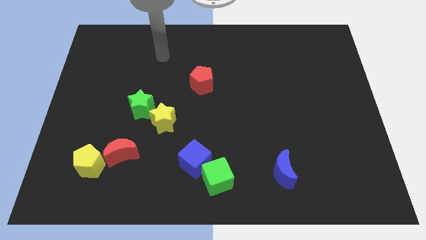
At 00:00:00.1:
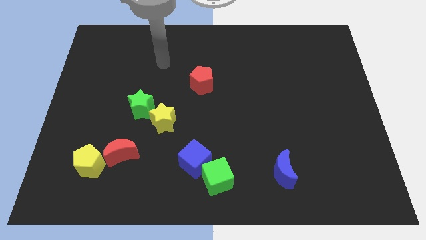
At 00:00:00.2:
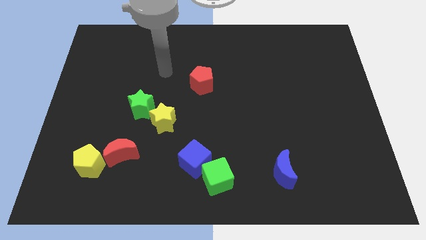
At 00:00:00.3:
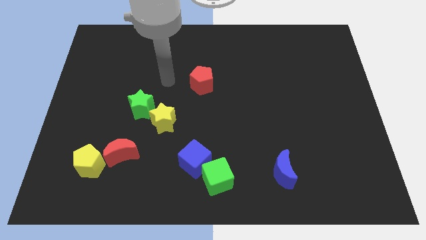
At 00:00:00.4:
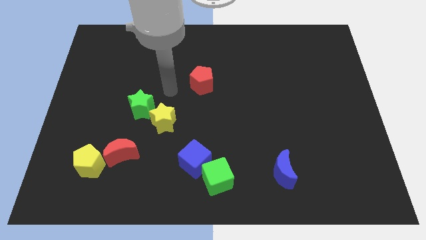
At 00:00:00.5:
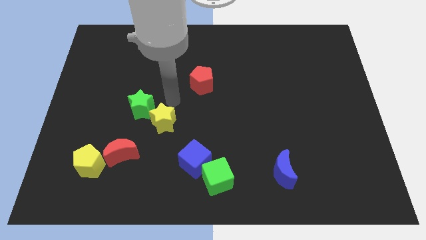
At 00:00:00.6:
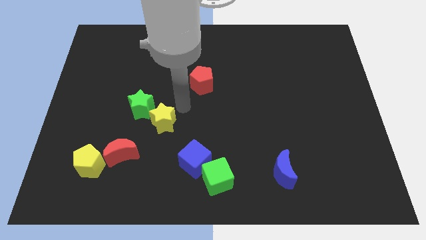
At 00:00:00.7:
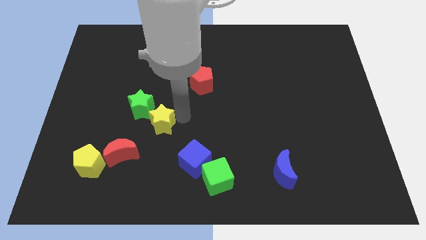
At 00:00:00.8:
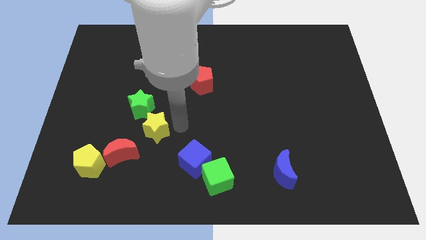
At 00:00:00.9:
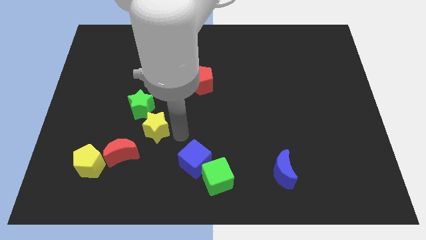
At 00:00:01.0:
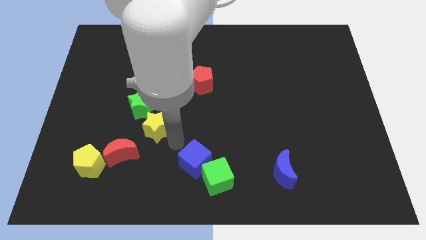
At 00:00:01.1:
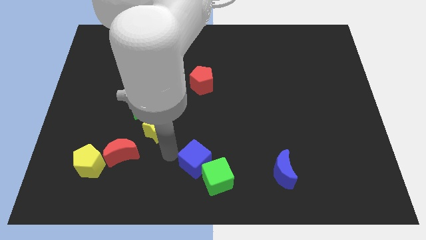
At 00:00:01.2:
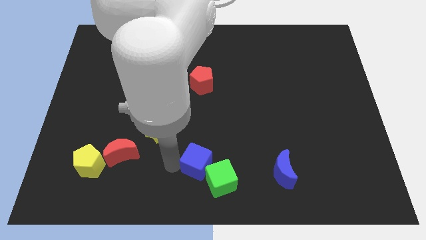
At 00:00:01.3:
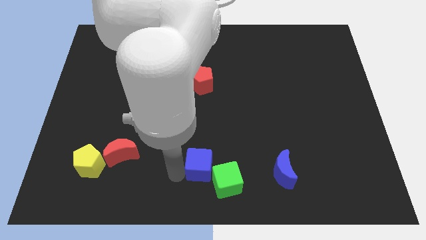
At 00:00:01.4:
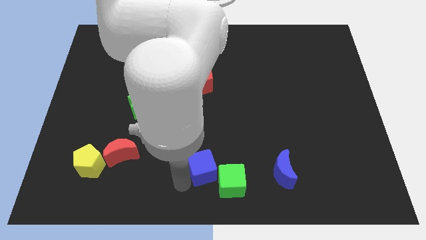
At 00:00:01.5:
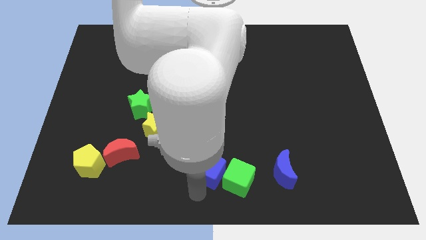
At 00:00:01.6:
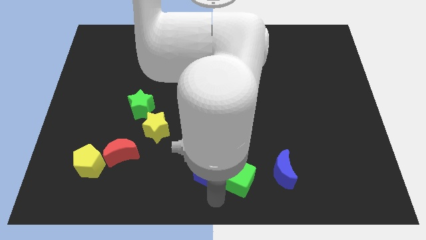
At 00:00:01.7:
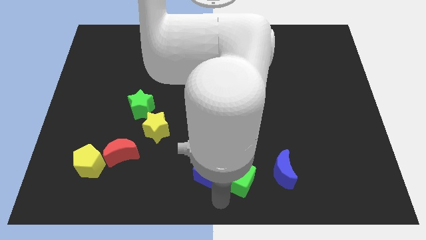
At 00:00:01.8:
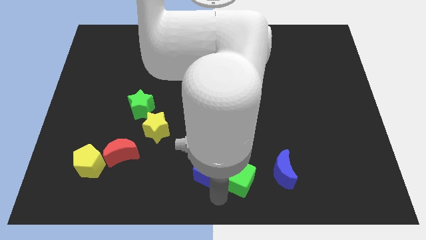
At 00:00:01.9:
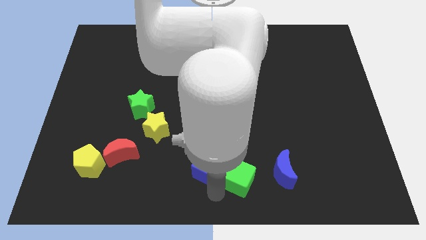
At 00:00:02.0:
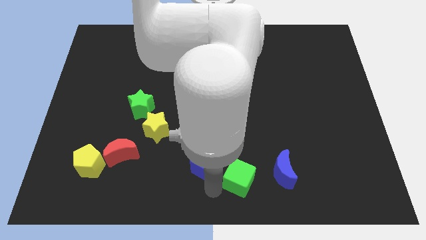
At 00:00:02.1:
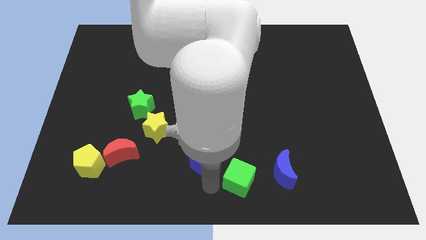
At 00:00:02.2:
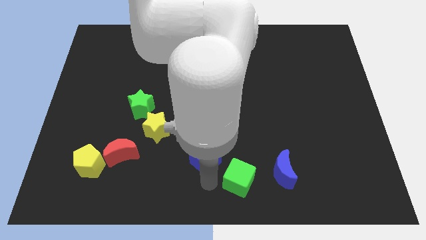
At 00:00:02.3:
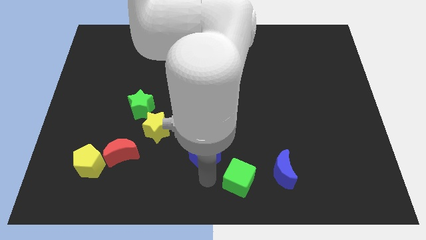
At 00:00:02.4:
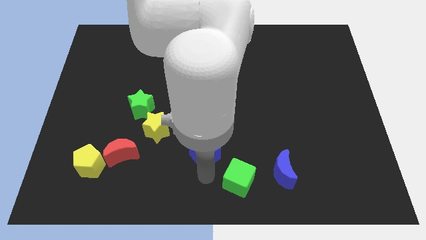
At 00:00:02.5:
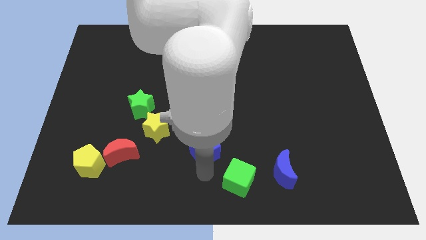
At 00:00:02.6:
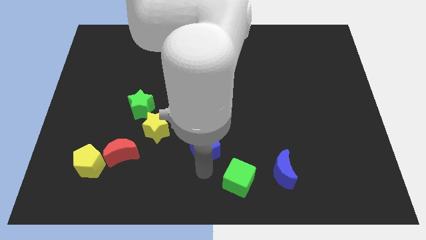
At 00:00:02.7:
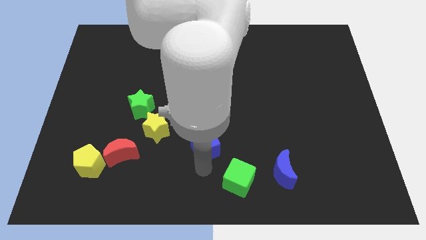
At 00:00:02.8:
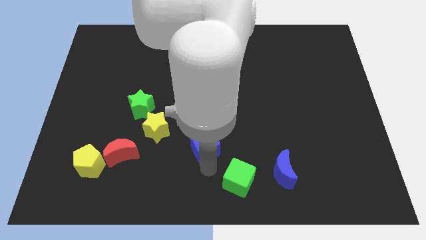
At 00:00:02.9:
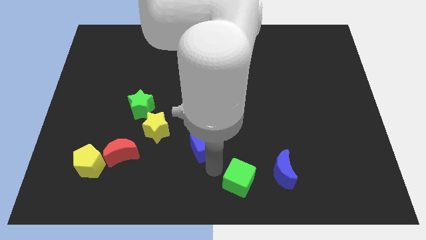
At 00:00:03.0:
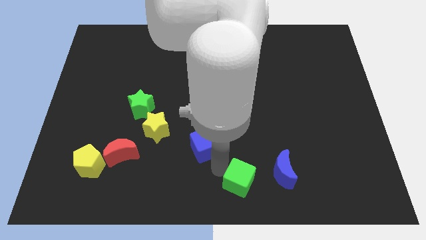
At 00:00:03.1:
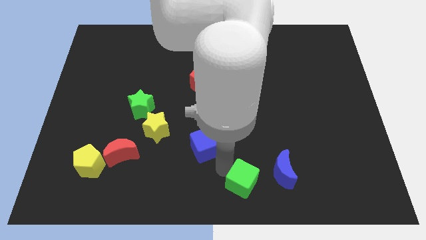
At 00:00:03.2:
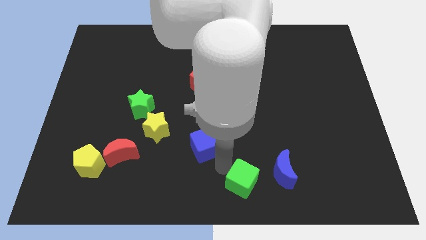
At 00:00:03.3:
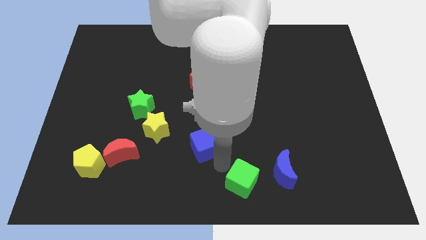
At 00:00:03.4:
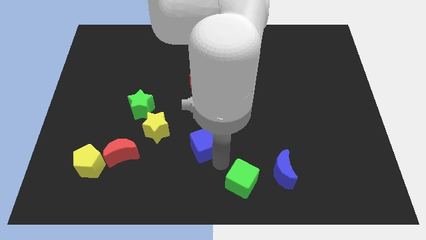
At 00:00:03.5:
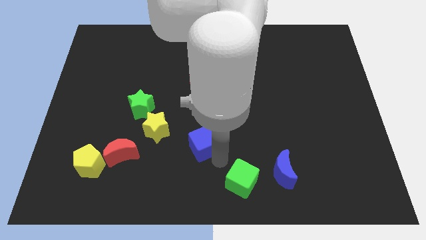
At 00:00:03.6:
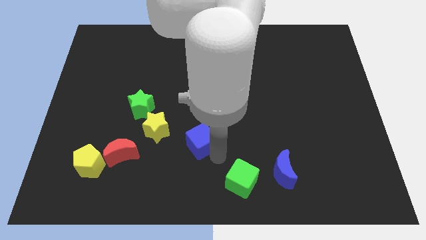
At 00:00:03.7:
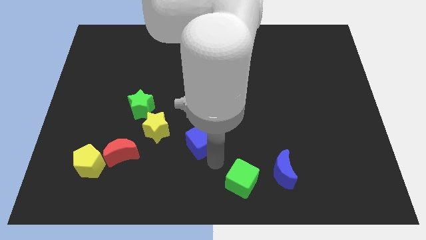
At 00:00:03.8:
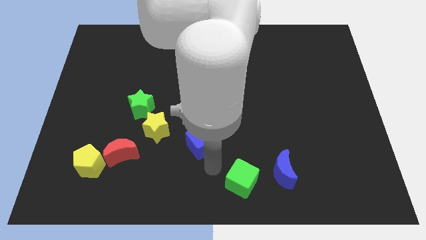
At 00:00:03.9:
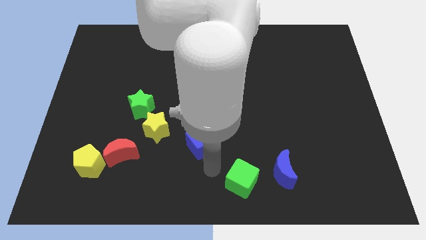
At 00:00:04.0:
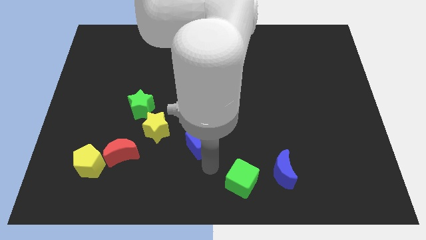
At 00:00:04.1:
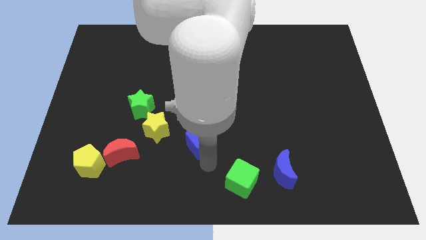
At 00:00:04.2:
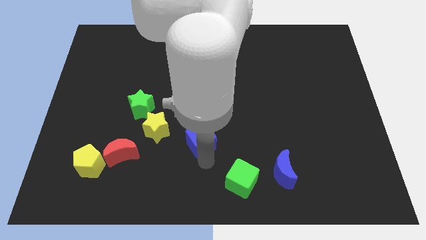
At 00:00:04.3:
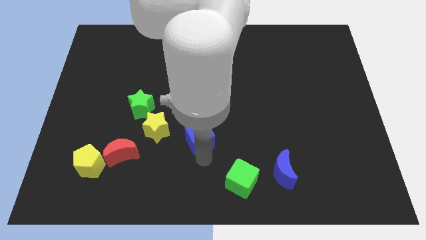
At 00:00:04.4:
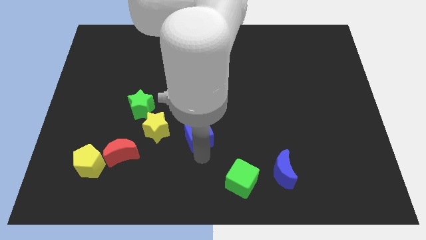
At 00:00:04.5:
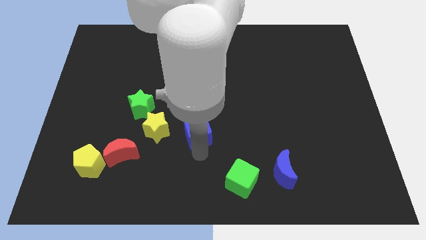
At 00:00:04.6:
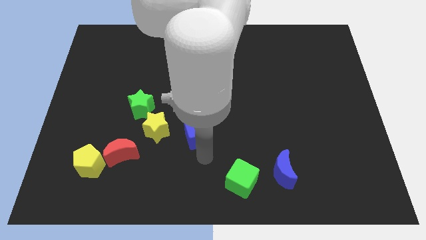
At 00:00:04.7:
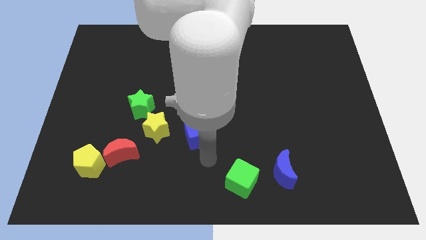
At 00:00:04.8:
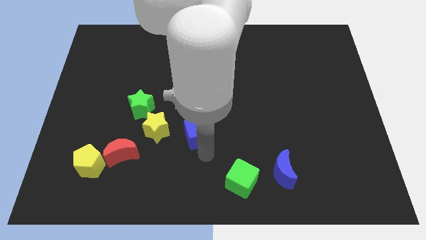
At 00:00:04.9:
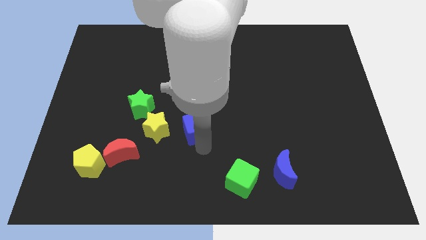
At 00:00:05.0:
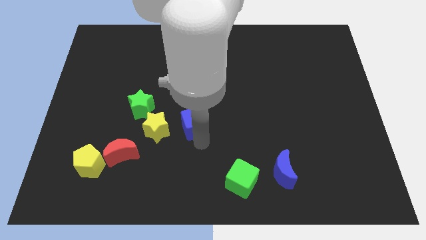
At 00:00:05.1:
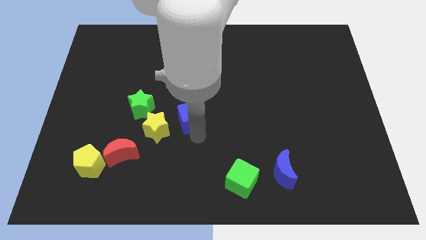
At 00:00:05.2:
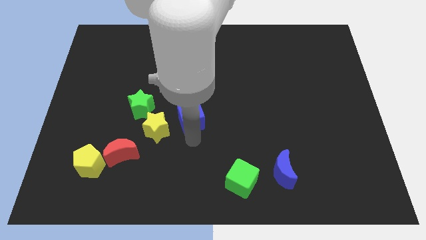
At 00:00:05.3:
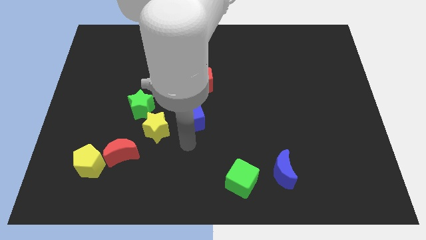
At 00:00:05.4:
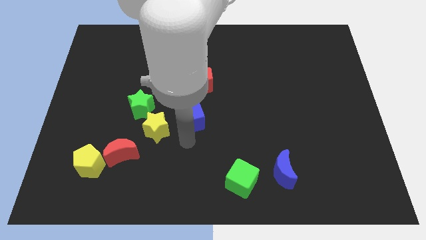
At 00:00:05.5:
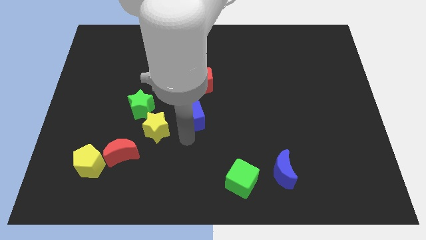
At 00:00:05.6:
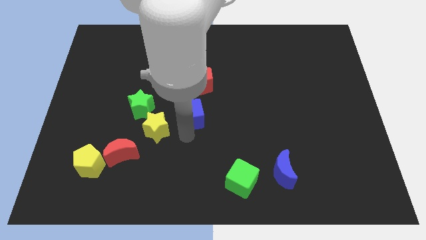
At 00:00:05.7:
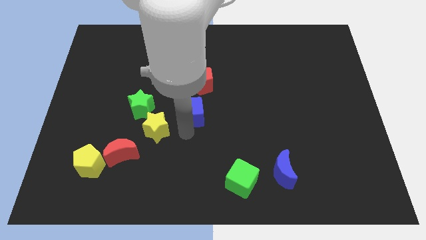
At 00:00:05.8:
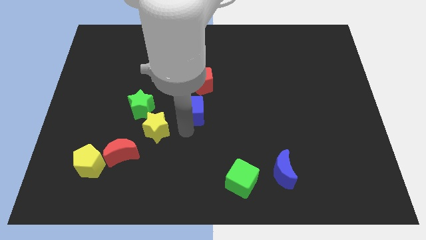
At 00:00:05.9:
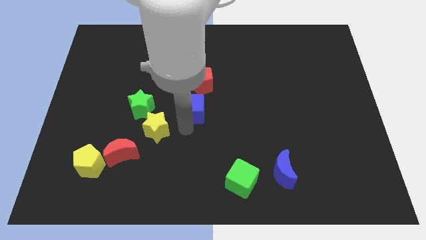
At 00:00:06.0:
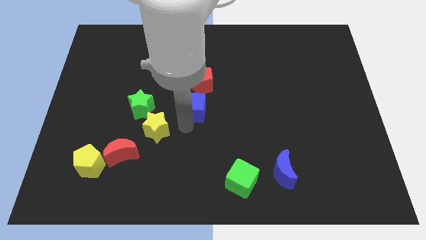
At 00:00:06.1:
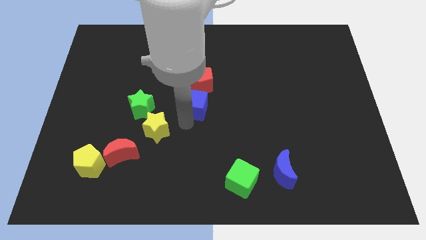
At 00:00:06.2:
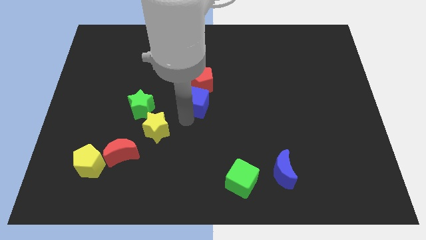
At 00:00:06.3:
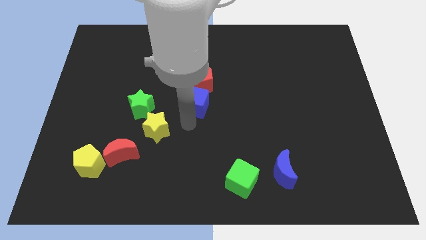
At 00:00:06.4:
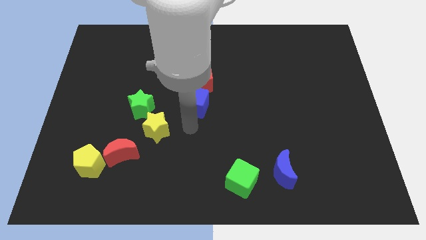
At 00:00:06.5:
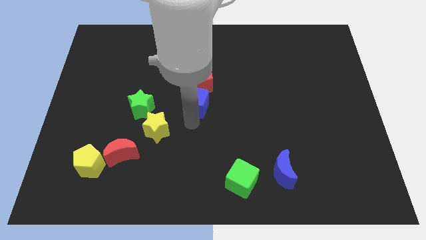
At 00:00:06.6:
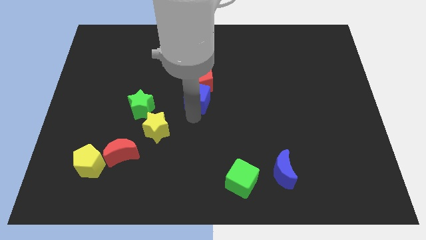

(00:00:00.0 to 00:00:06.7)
move the blue cube to the red pentagon
